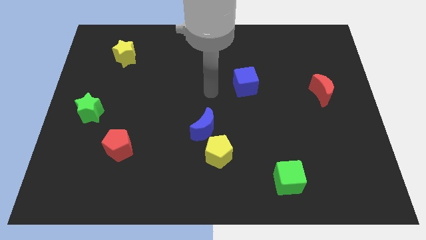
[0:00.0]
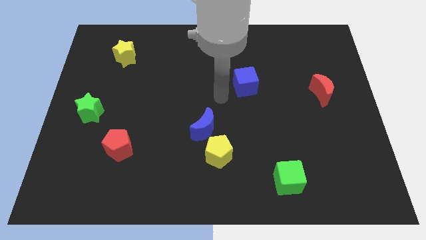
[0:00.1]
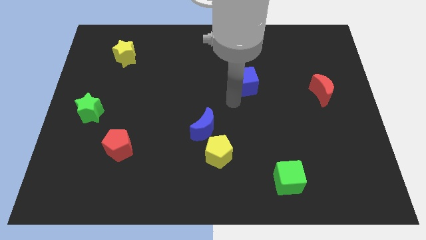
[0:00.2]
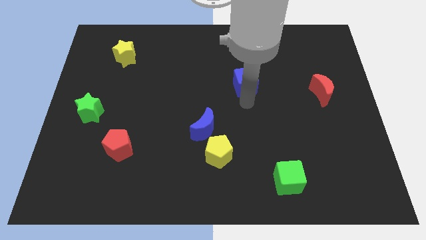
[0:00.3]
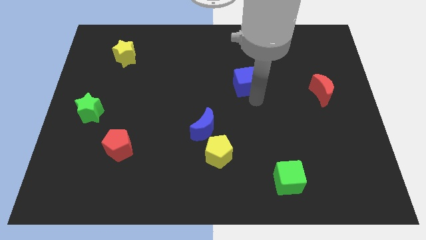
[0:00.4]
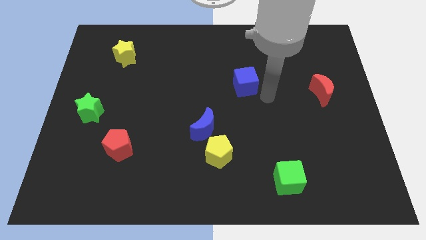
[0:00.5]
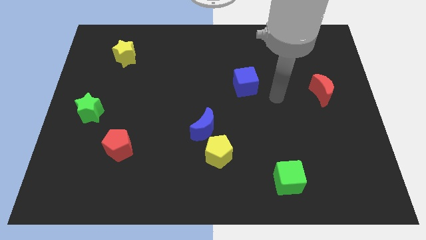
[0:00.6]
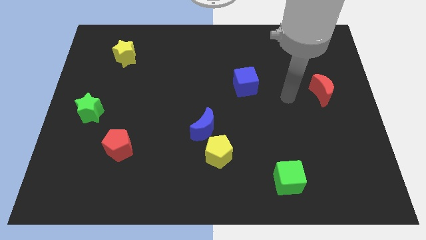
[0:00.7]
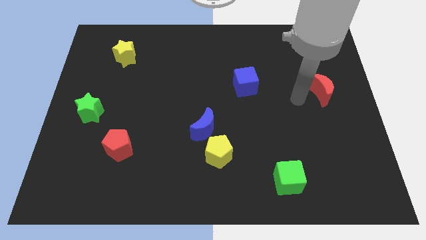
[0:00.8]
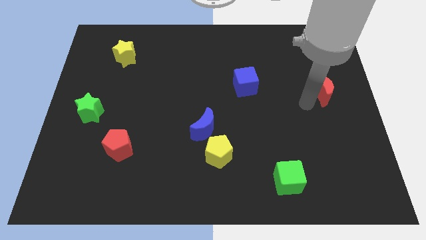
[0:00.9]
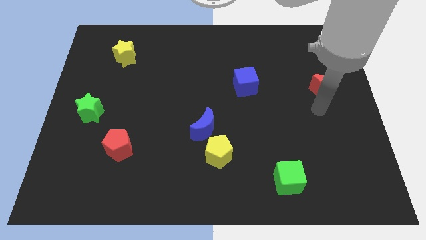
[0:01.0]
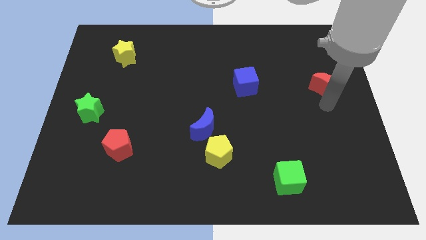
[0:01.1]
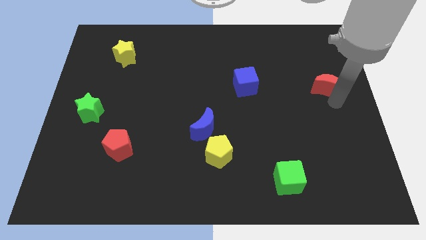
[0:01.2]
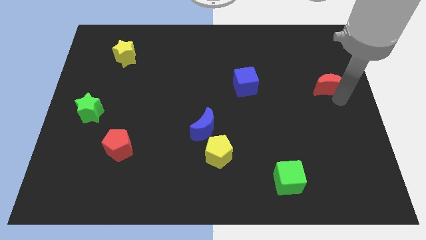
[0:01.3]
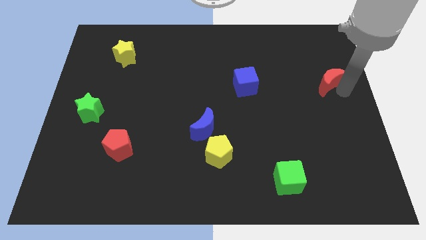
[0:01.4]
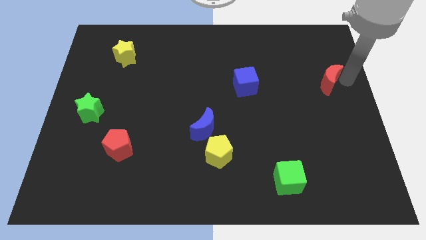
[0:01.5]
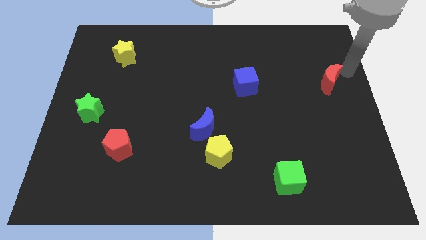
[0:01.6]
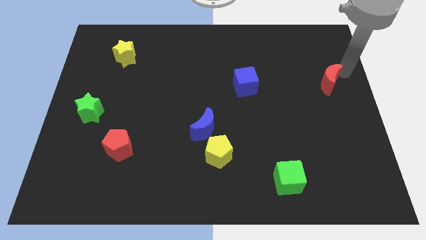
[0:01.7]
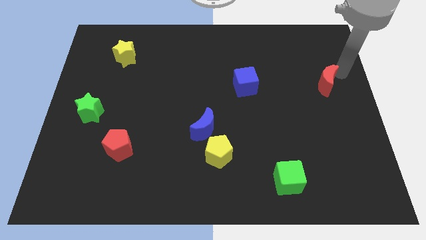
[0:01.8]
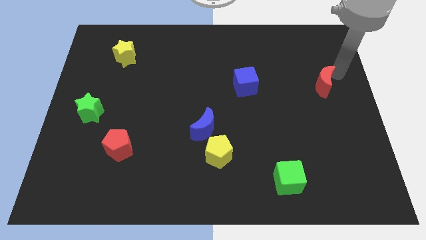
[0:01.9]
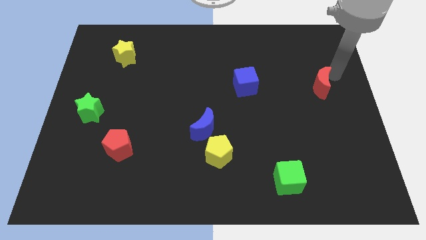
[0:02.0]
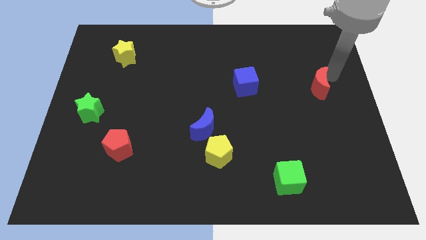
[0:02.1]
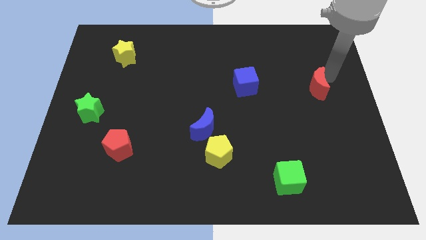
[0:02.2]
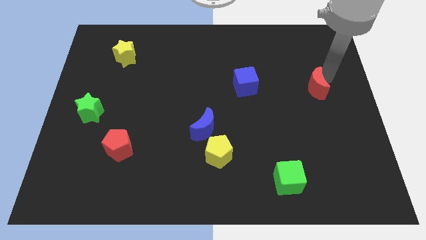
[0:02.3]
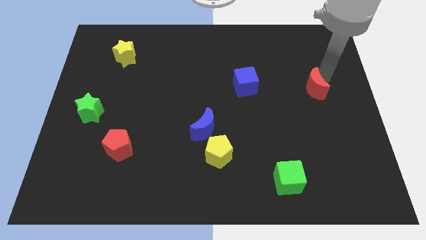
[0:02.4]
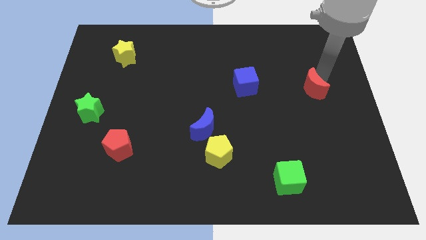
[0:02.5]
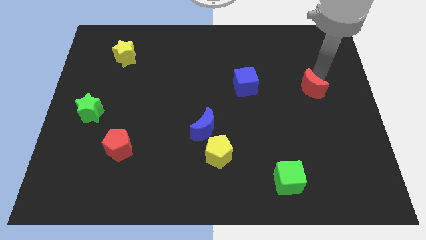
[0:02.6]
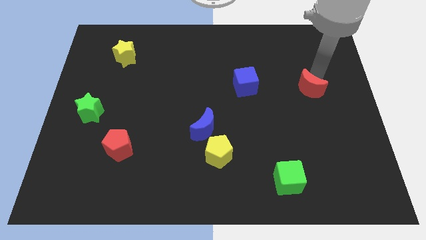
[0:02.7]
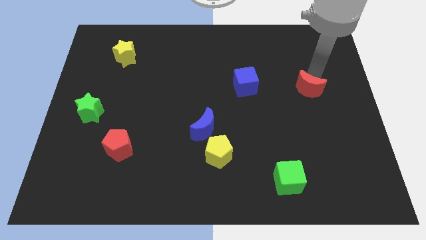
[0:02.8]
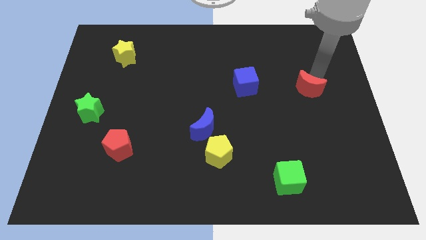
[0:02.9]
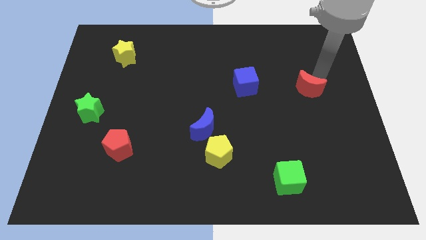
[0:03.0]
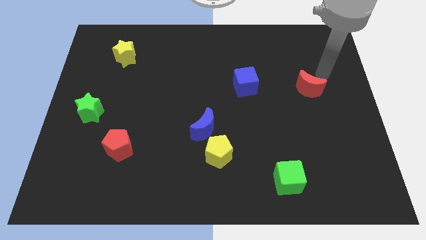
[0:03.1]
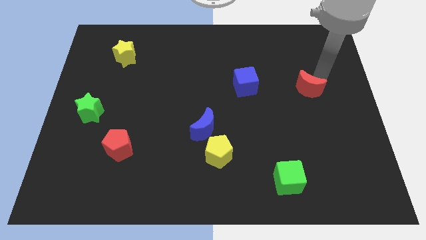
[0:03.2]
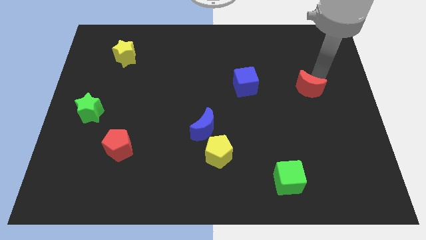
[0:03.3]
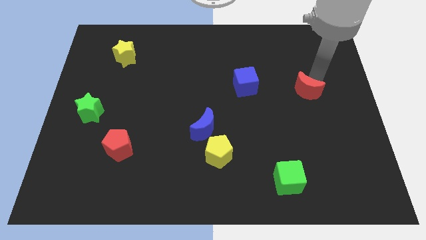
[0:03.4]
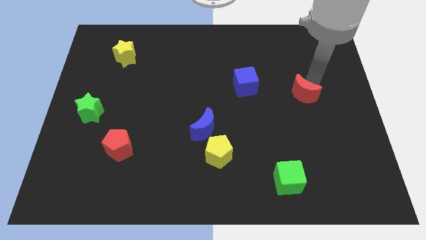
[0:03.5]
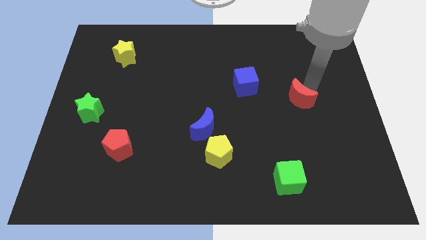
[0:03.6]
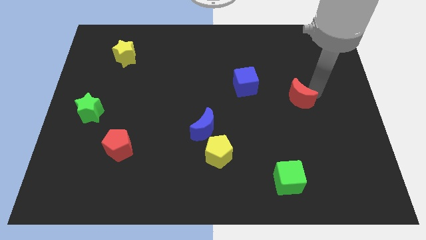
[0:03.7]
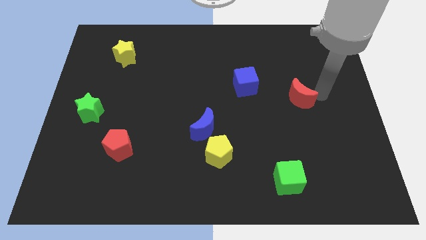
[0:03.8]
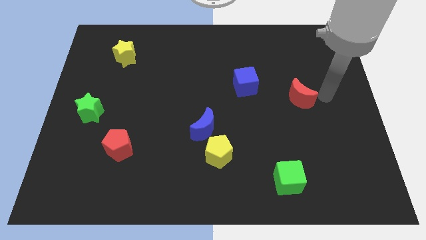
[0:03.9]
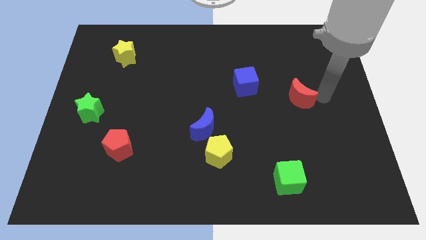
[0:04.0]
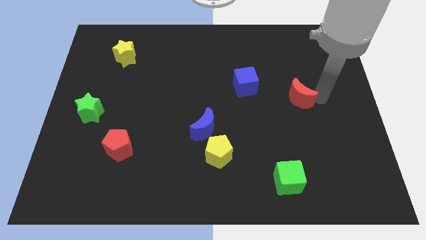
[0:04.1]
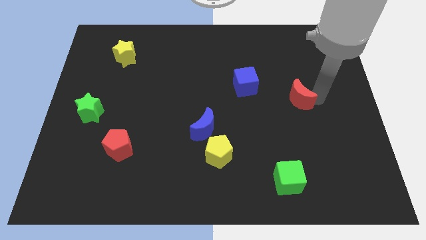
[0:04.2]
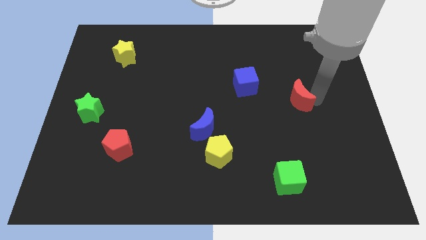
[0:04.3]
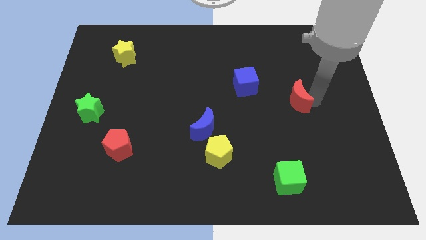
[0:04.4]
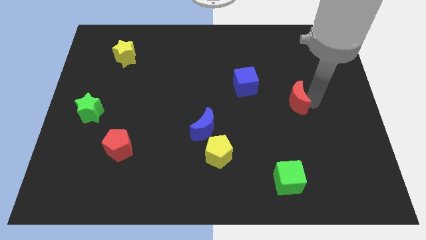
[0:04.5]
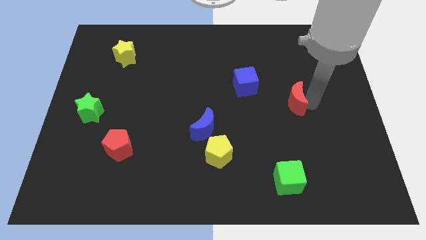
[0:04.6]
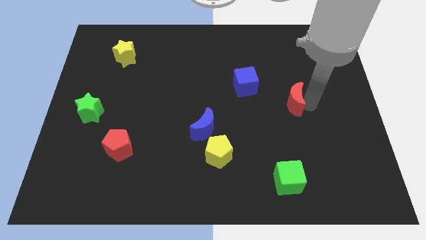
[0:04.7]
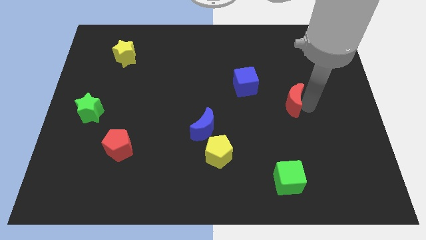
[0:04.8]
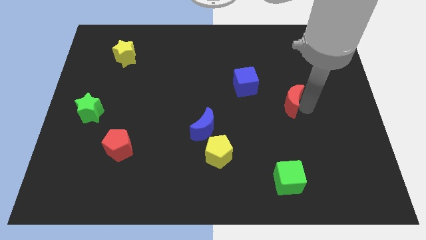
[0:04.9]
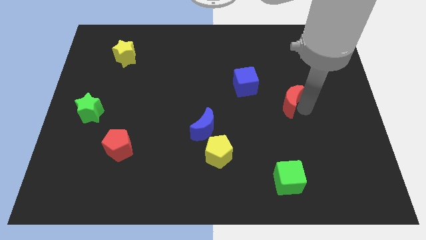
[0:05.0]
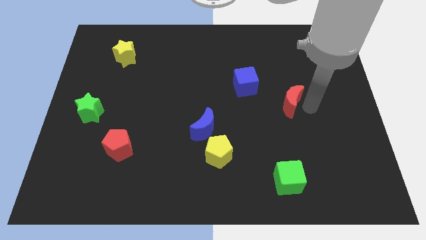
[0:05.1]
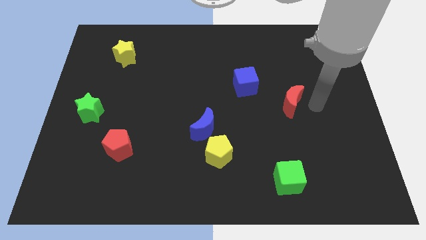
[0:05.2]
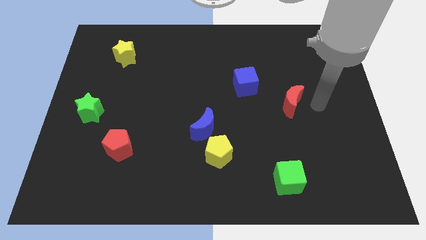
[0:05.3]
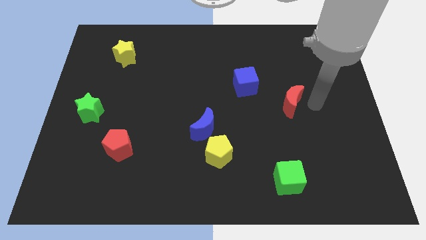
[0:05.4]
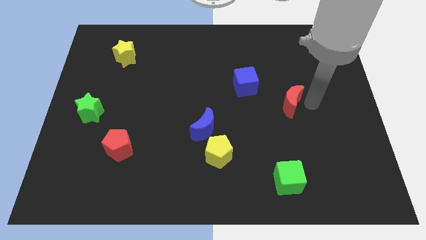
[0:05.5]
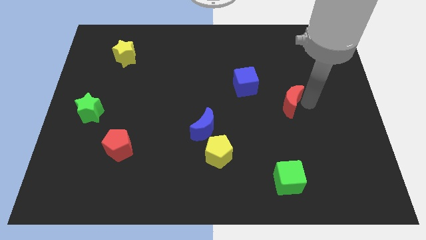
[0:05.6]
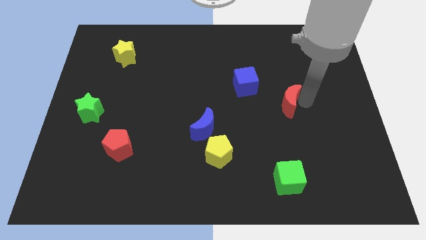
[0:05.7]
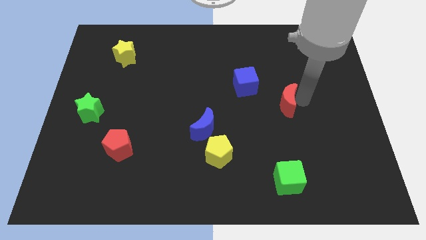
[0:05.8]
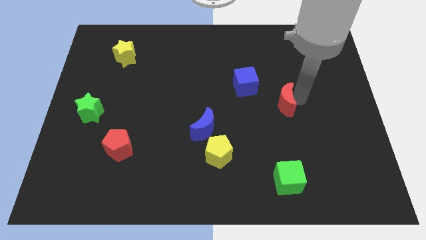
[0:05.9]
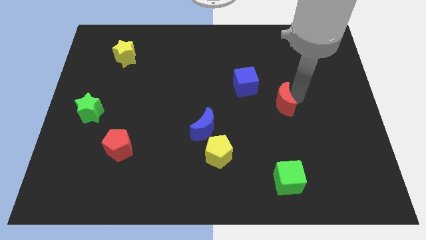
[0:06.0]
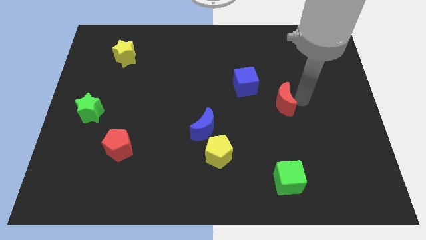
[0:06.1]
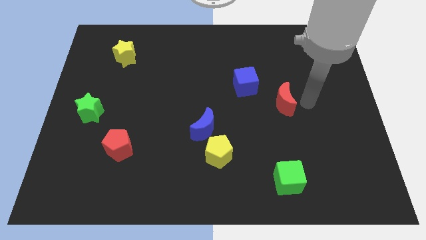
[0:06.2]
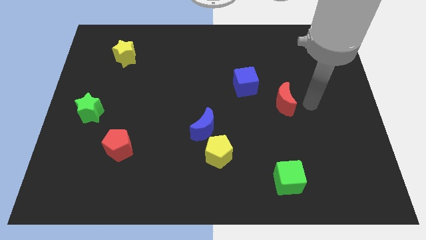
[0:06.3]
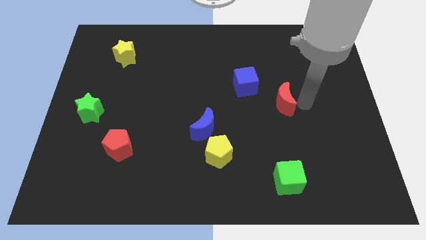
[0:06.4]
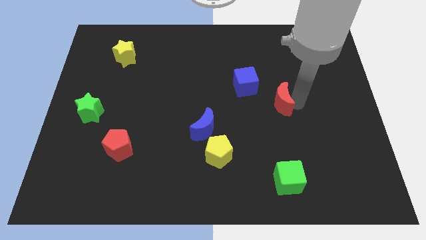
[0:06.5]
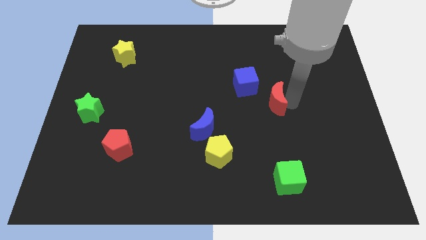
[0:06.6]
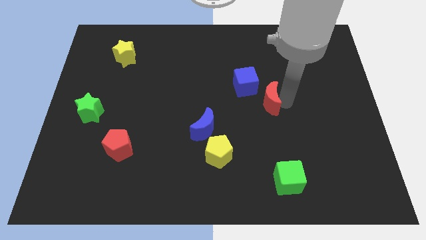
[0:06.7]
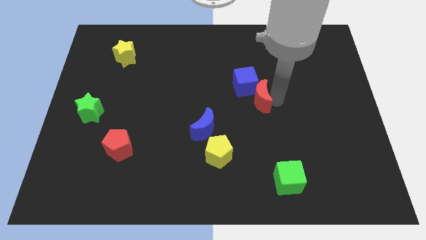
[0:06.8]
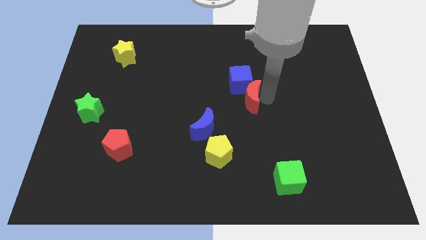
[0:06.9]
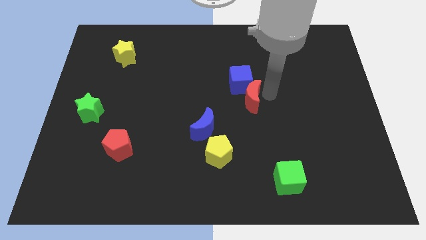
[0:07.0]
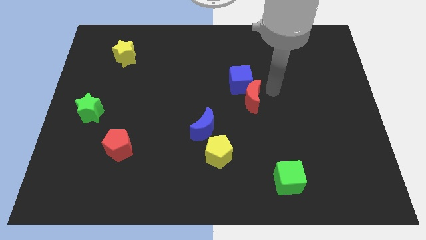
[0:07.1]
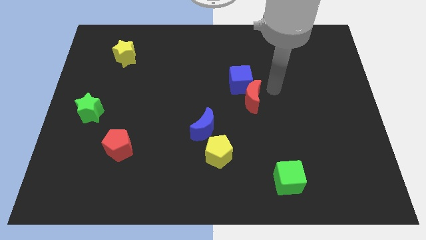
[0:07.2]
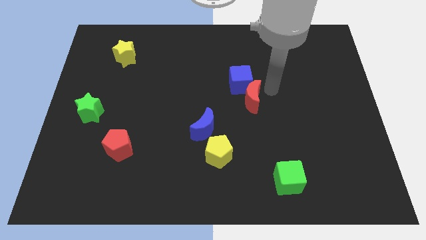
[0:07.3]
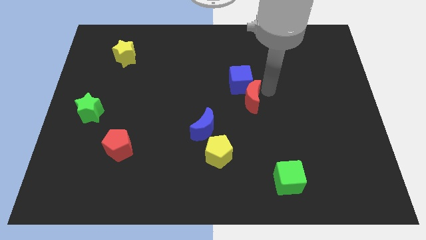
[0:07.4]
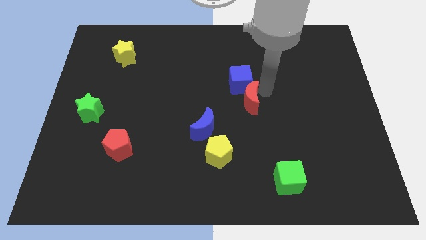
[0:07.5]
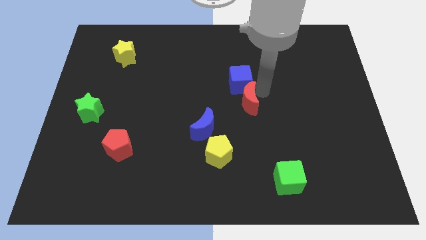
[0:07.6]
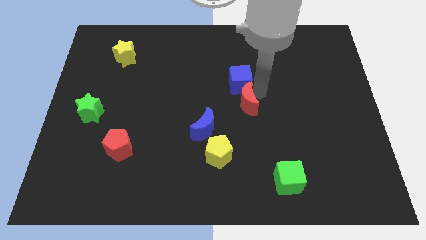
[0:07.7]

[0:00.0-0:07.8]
push the red moon diagonally up and to the right of the blue moon

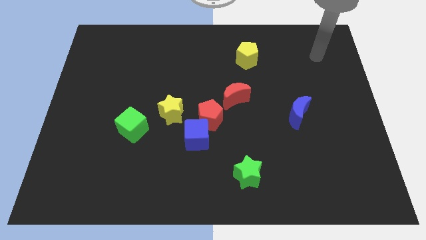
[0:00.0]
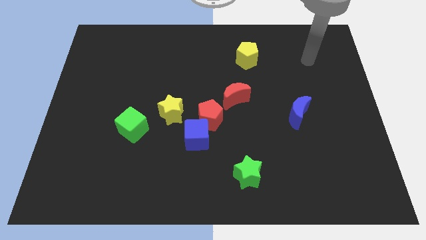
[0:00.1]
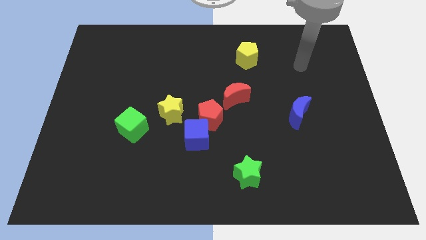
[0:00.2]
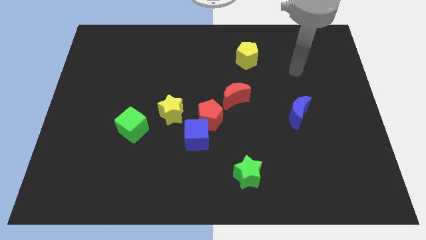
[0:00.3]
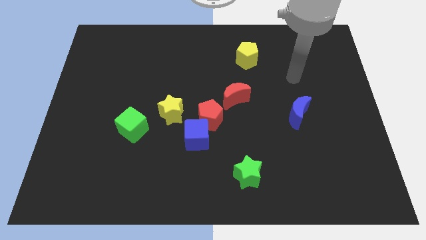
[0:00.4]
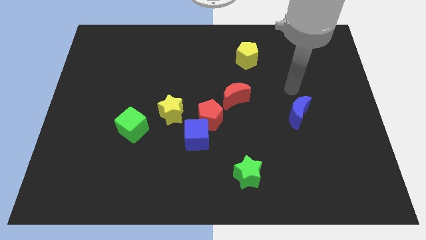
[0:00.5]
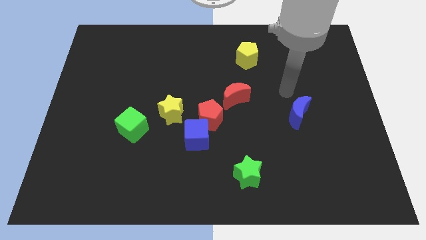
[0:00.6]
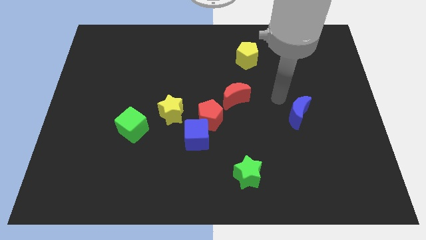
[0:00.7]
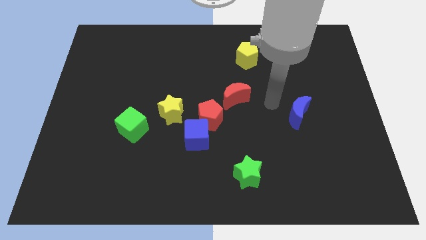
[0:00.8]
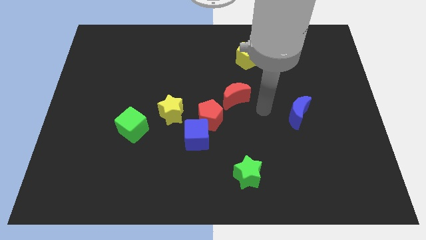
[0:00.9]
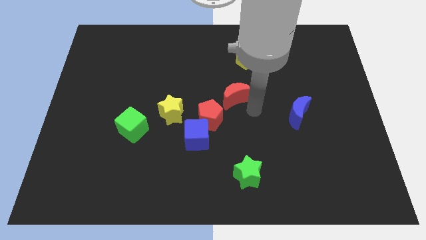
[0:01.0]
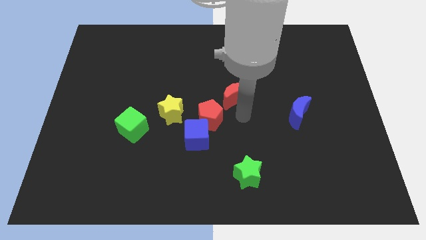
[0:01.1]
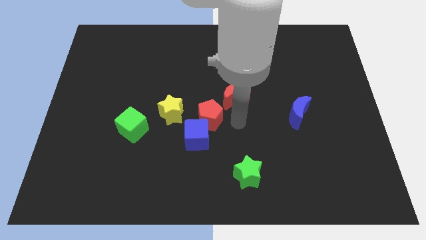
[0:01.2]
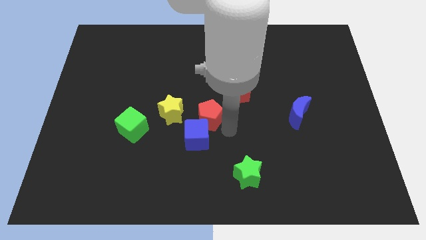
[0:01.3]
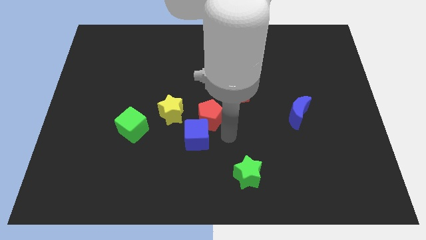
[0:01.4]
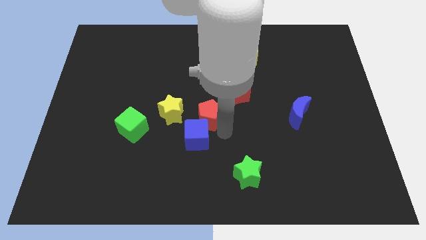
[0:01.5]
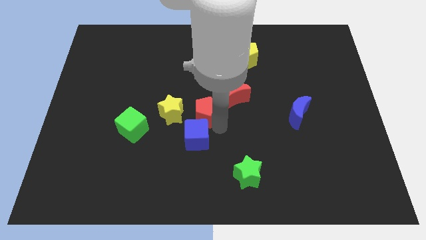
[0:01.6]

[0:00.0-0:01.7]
put the red pentagon to the left side of the red moon
